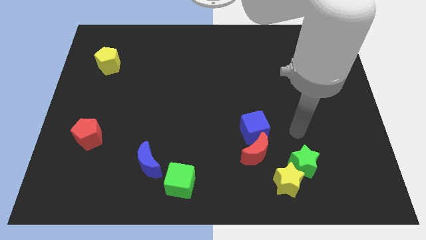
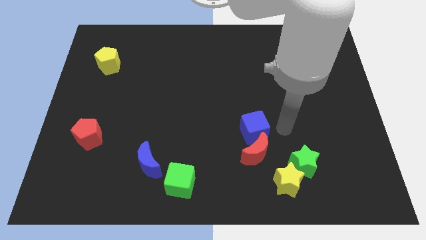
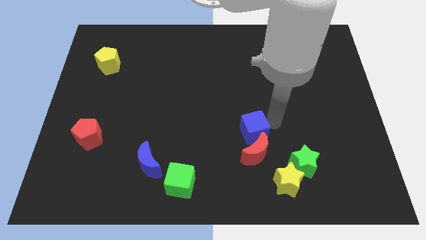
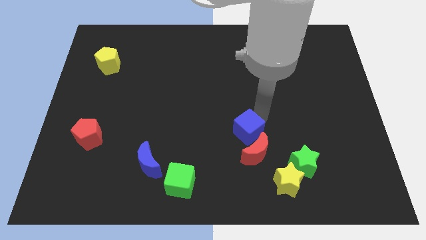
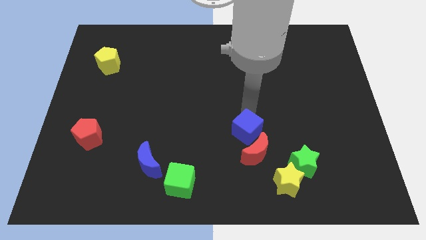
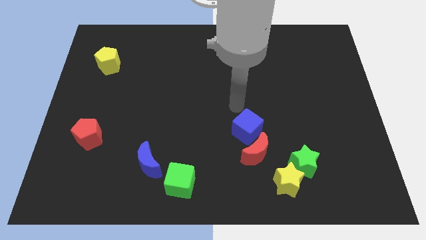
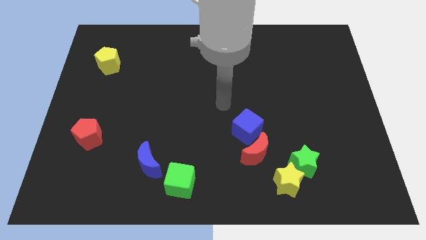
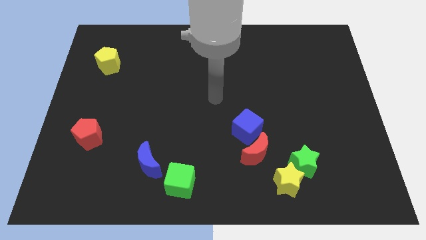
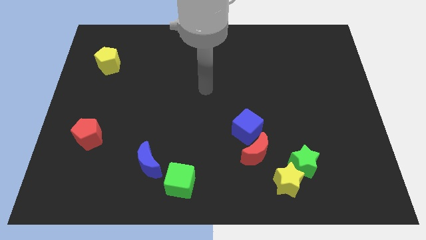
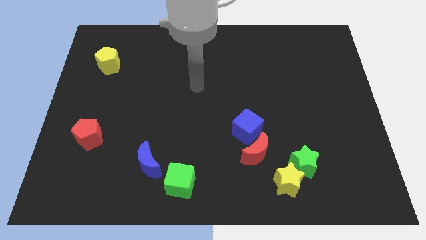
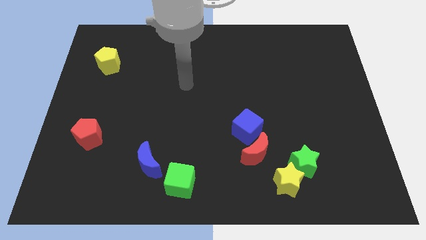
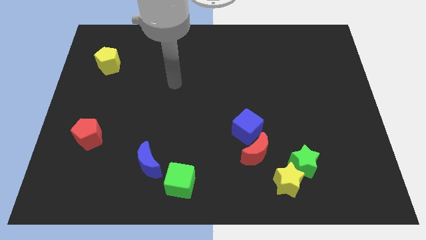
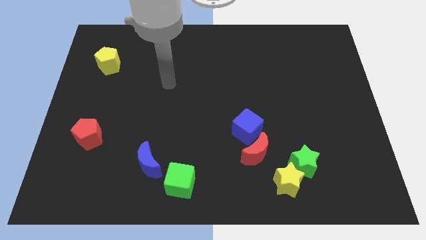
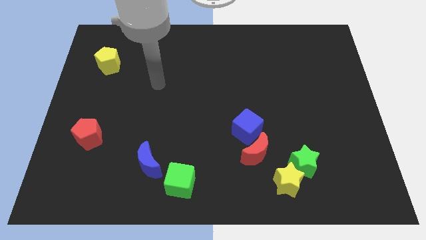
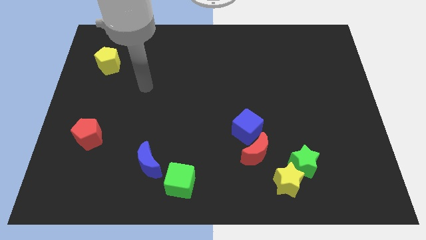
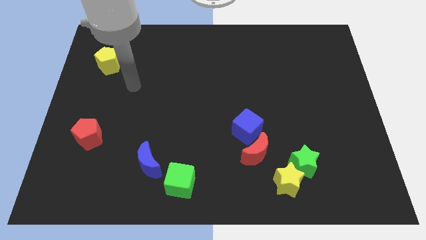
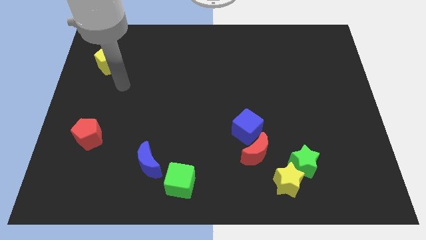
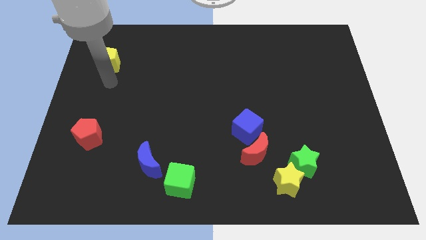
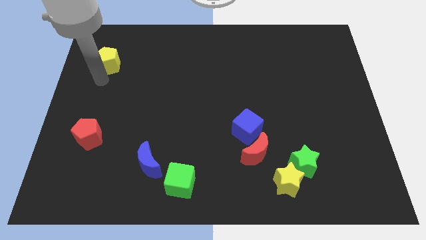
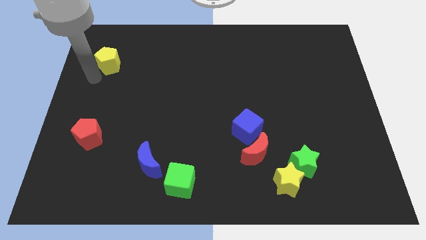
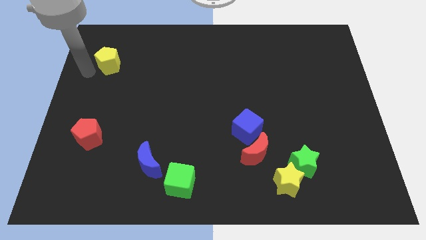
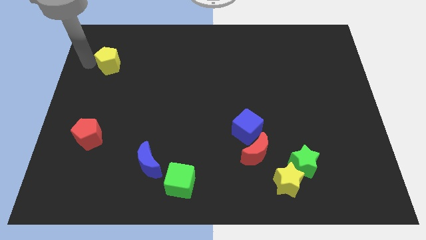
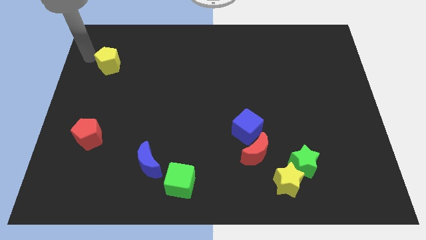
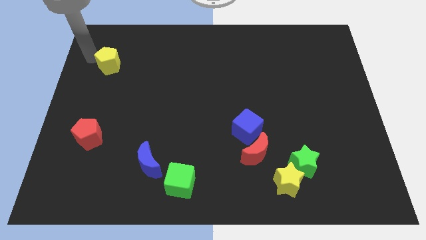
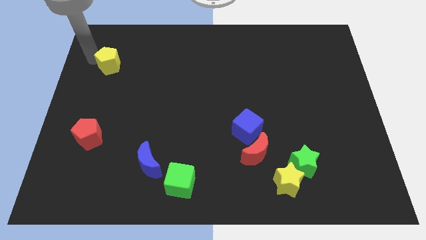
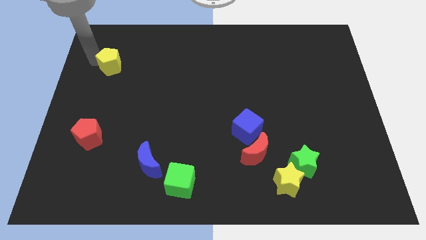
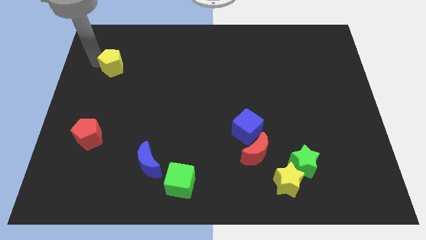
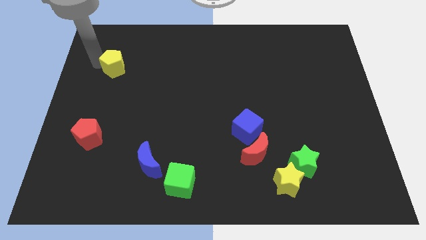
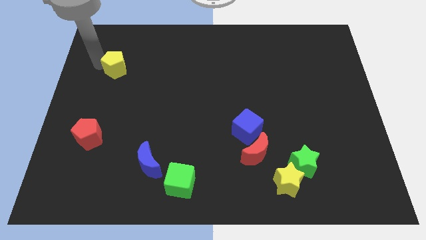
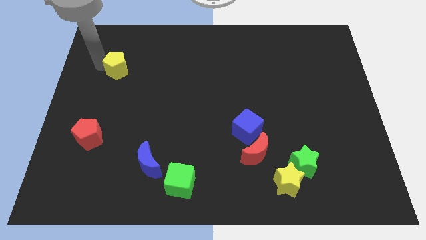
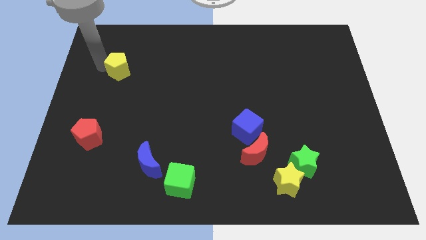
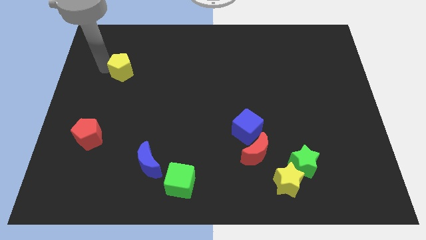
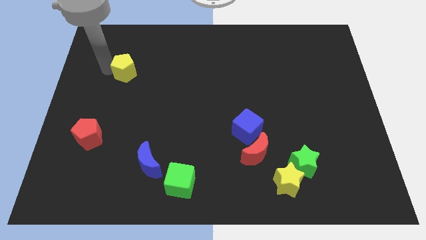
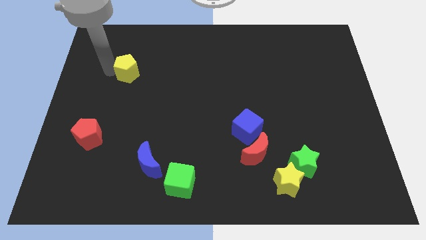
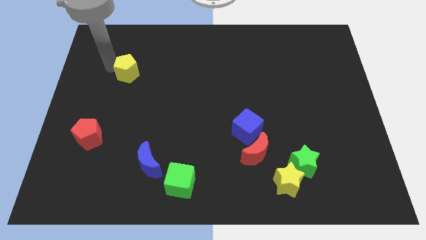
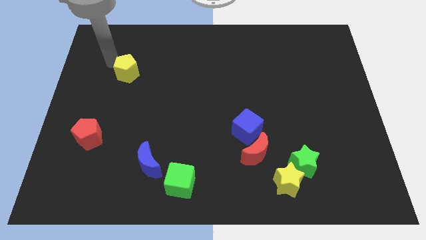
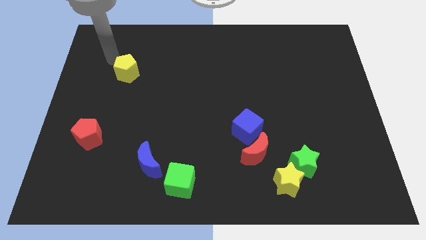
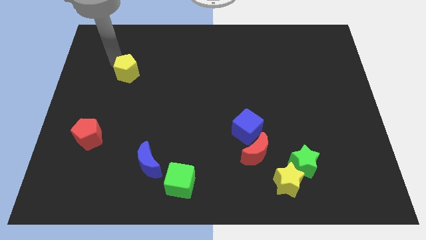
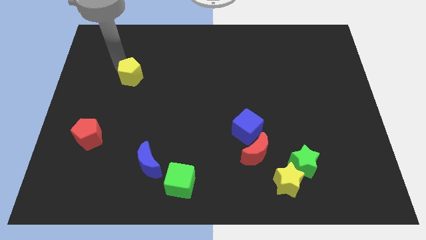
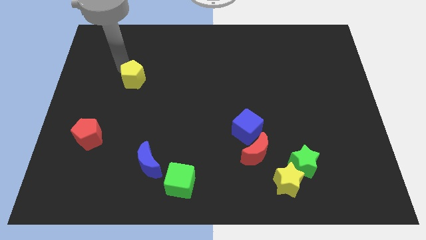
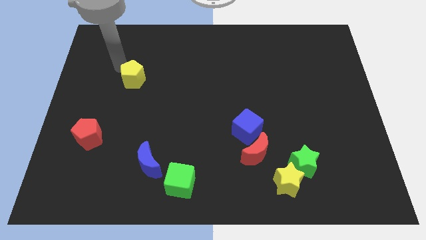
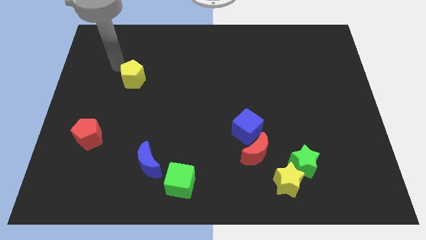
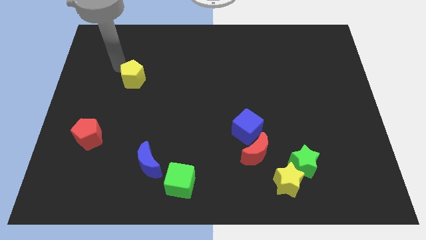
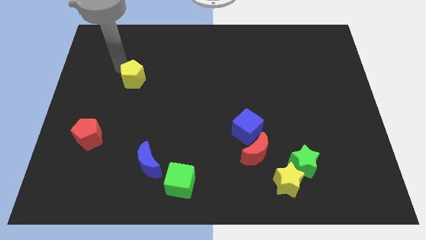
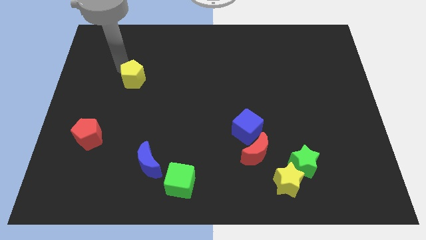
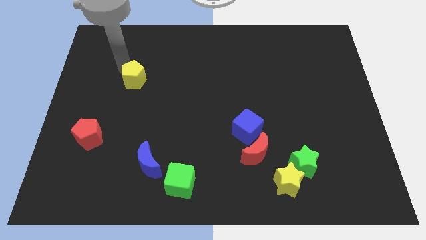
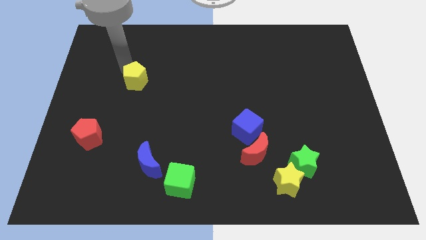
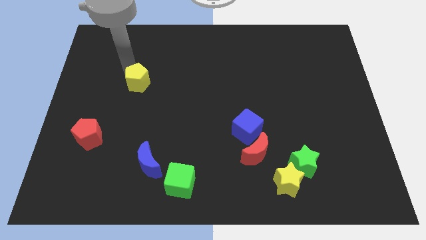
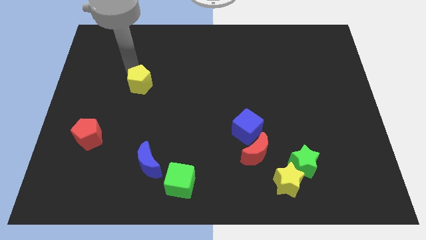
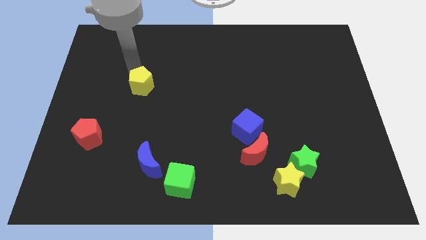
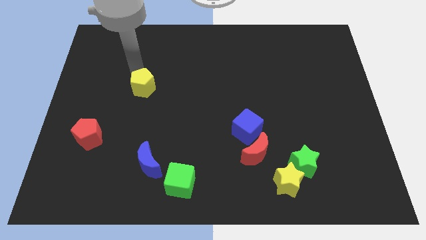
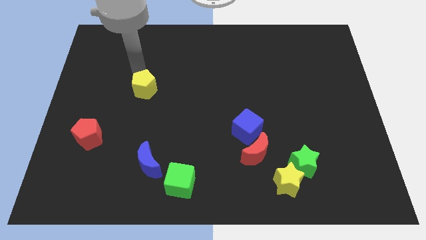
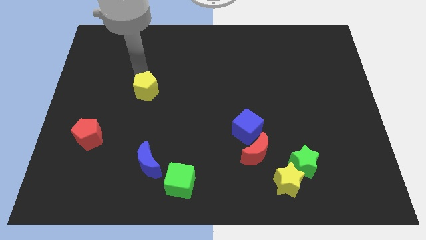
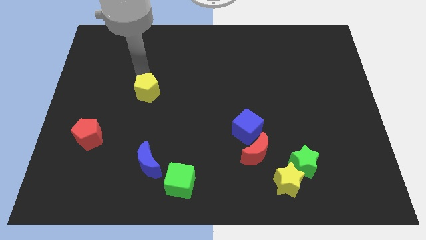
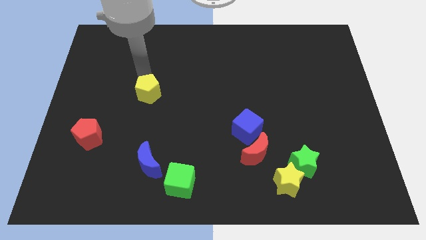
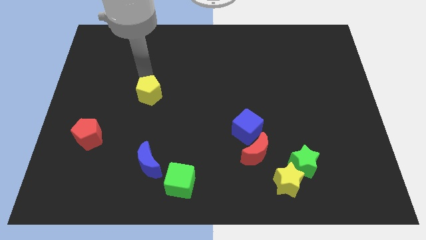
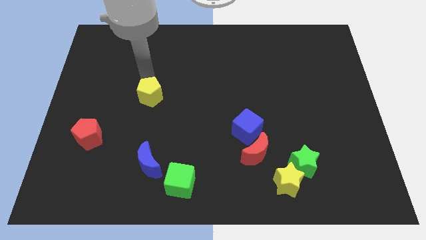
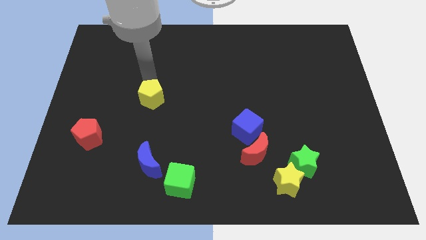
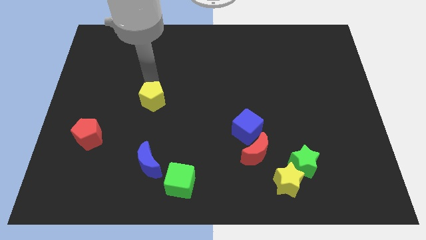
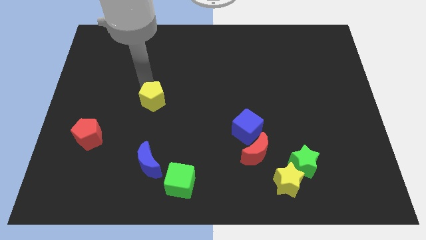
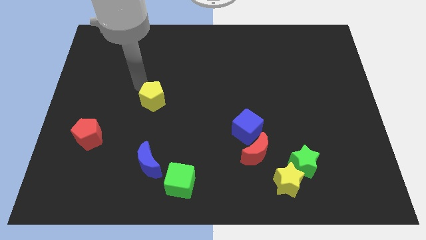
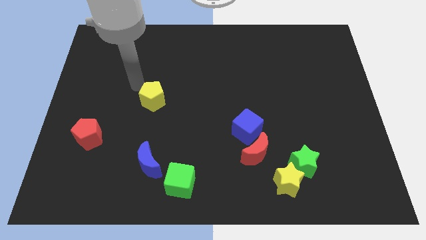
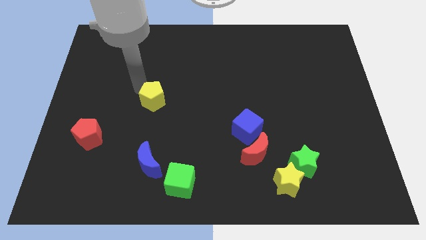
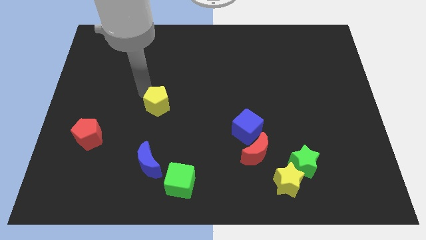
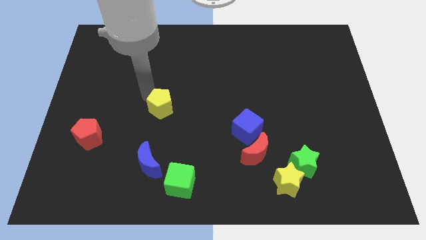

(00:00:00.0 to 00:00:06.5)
move the yellow pentagon downwards and then right

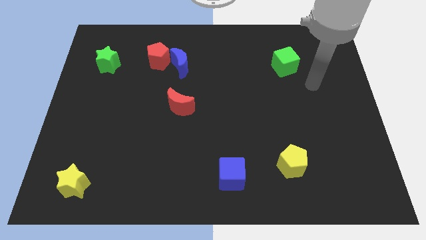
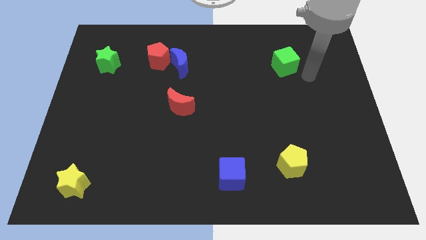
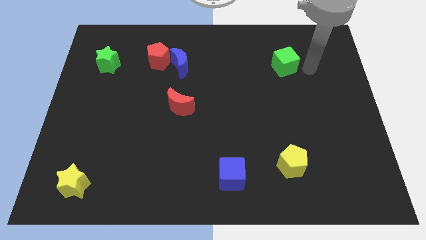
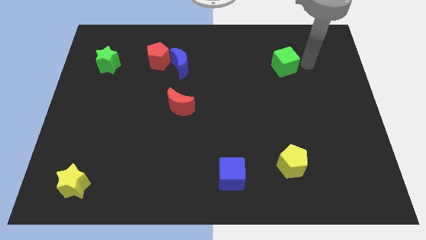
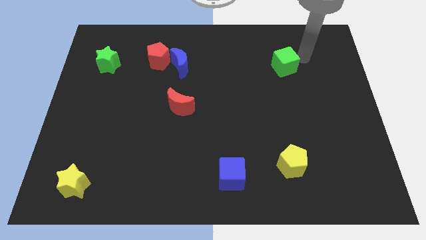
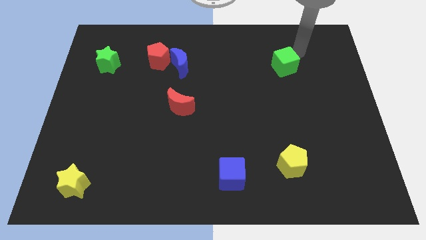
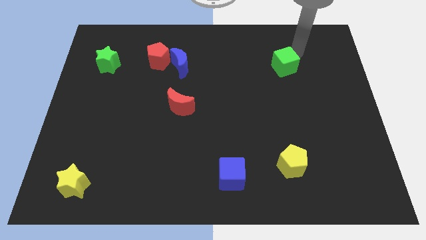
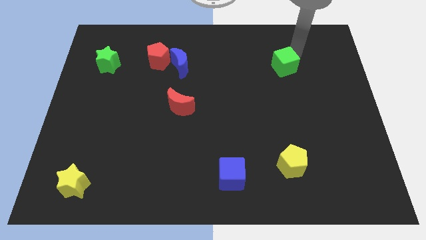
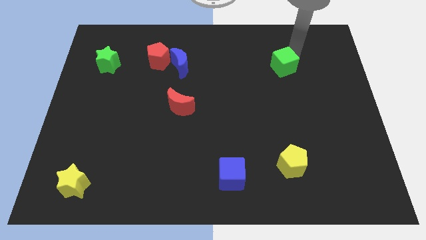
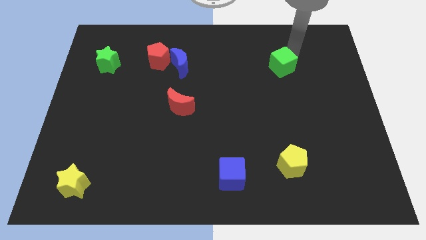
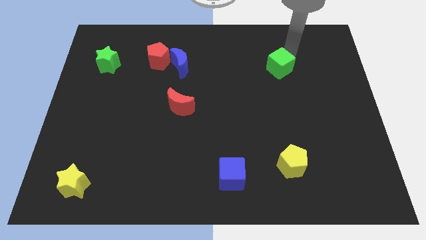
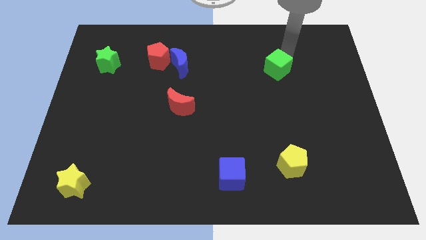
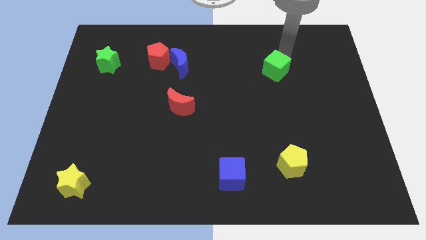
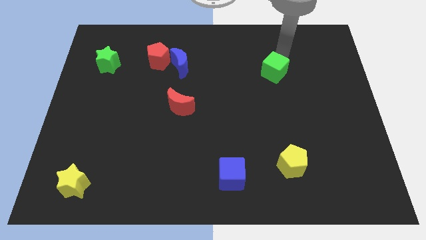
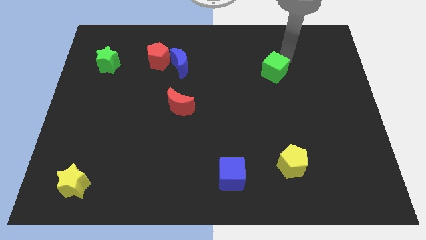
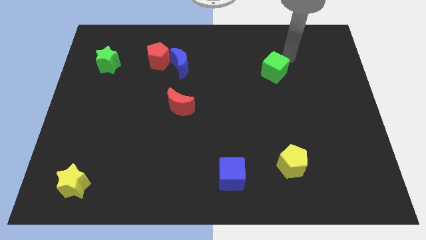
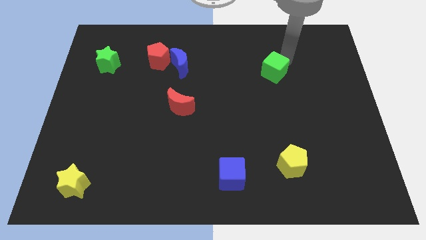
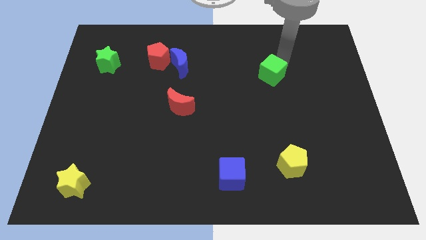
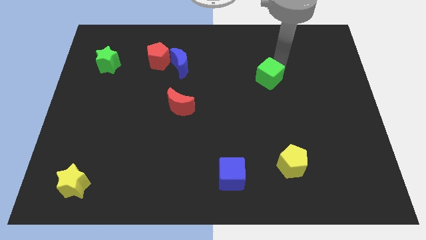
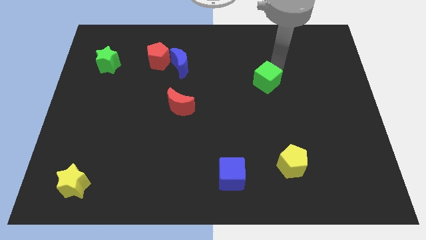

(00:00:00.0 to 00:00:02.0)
push the green cube diagonally down and to the left somewhat
